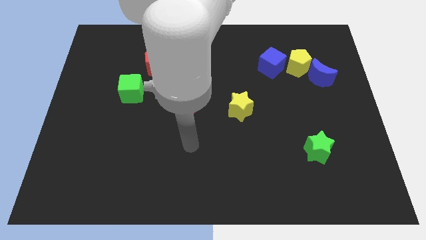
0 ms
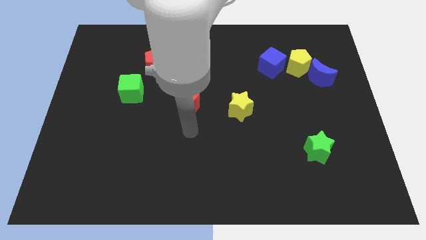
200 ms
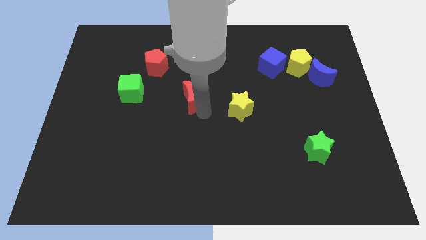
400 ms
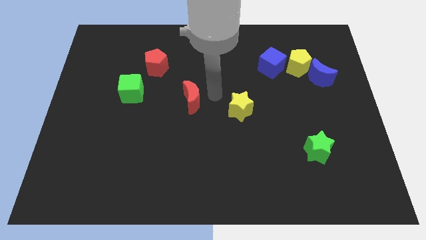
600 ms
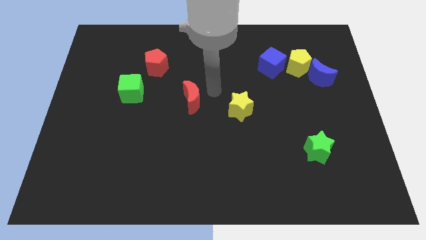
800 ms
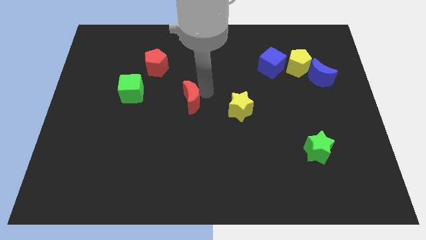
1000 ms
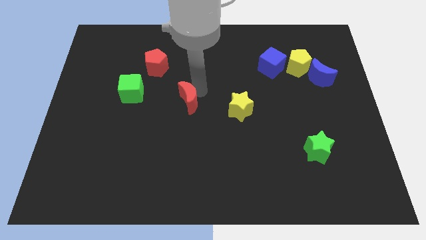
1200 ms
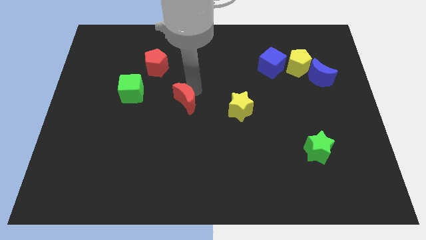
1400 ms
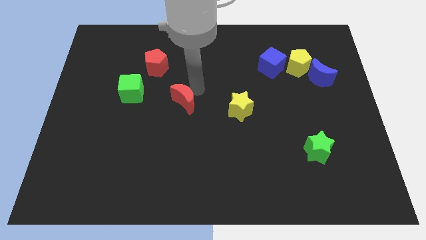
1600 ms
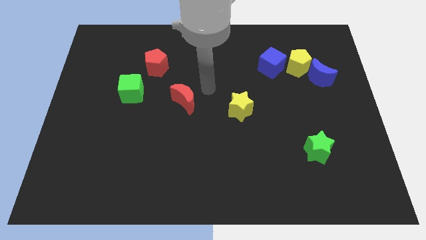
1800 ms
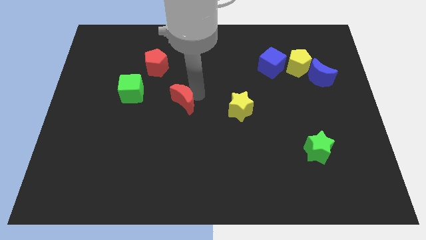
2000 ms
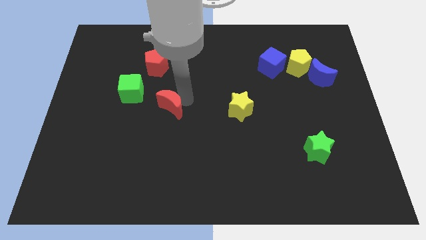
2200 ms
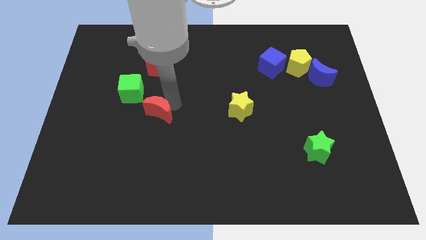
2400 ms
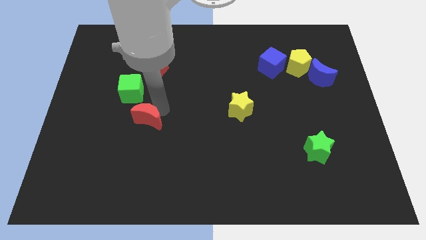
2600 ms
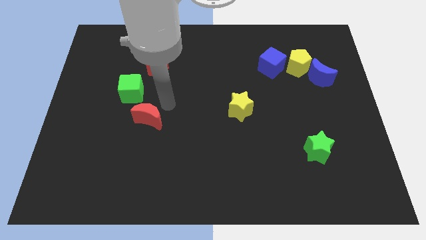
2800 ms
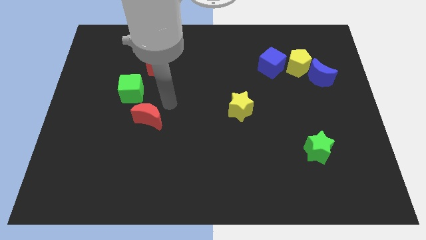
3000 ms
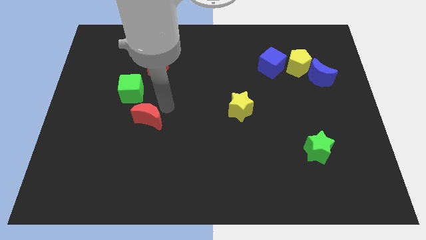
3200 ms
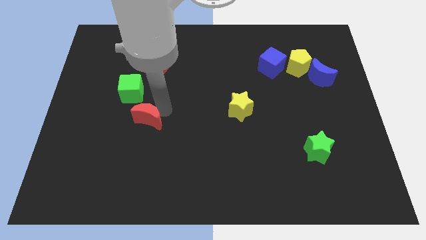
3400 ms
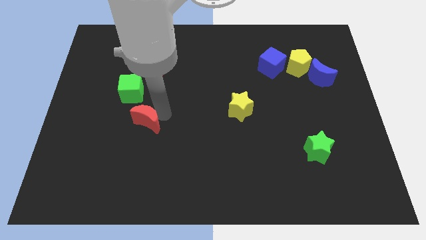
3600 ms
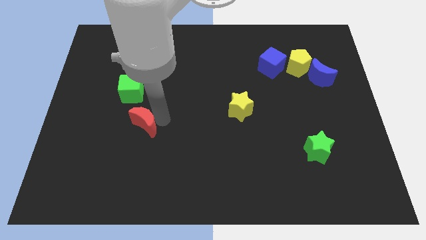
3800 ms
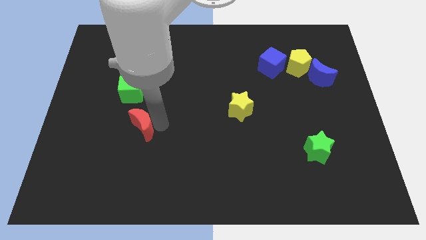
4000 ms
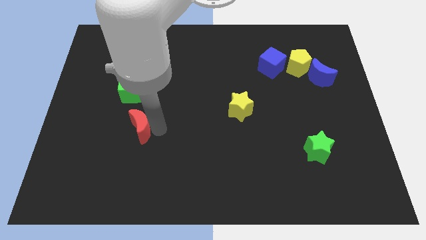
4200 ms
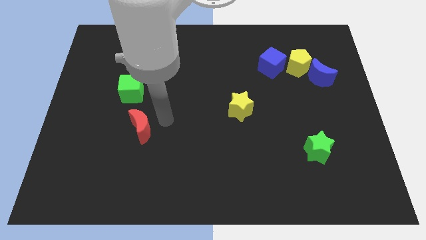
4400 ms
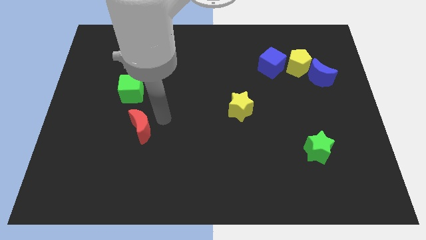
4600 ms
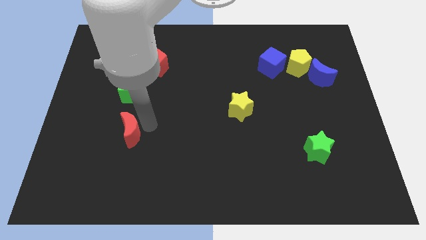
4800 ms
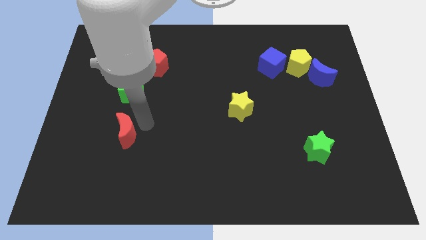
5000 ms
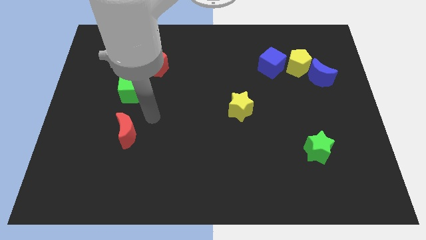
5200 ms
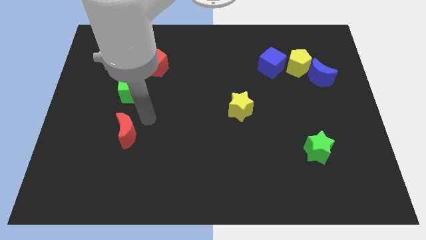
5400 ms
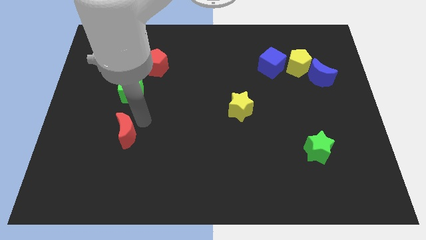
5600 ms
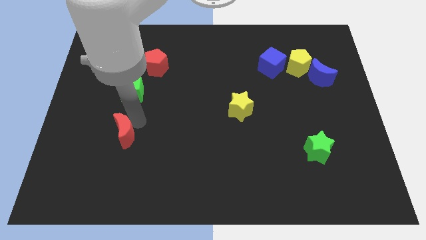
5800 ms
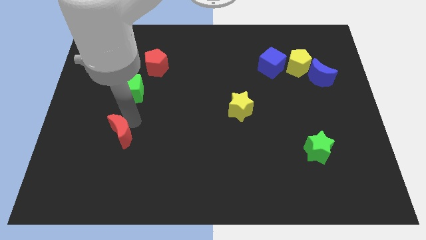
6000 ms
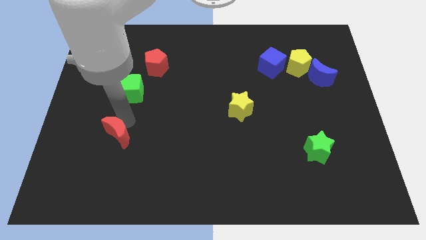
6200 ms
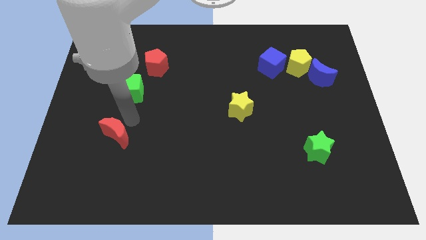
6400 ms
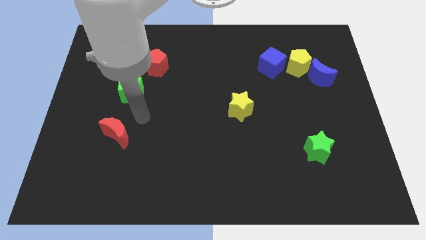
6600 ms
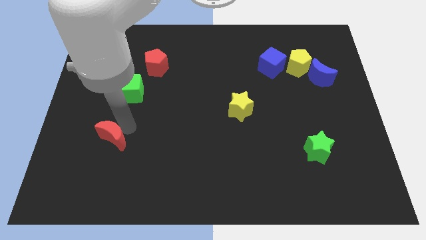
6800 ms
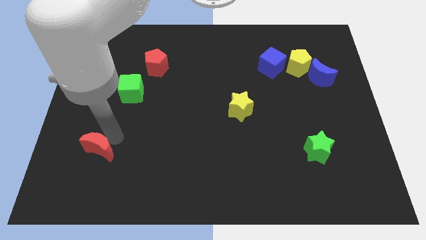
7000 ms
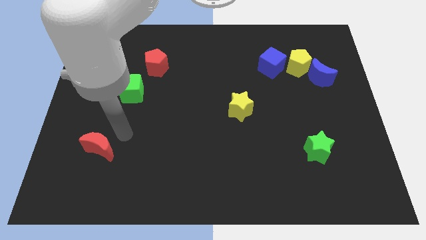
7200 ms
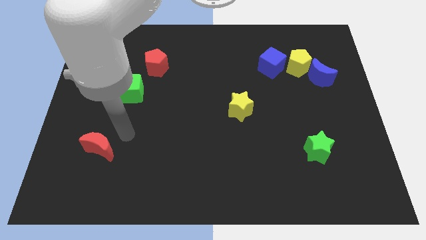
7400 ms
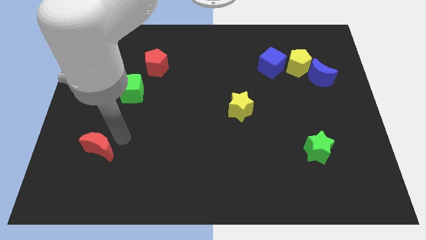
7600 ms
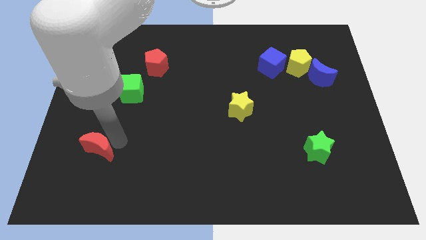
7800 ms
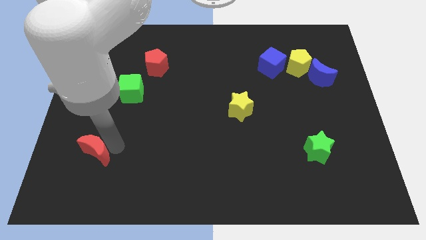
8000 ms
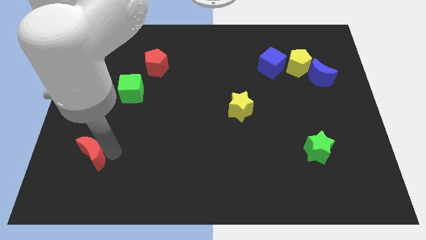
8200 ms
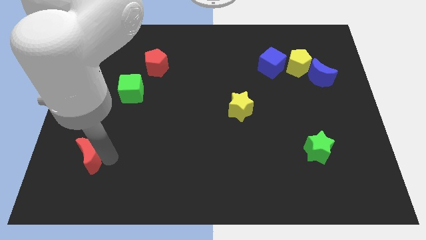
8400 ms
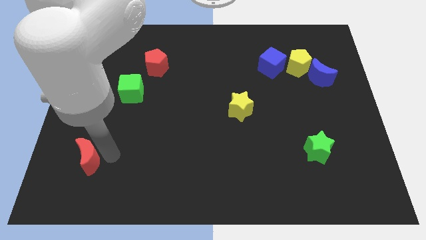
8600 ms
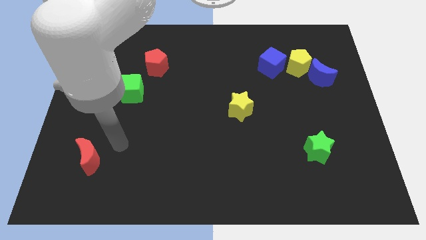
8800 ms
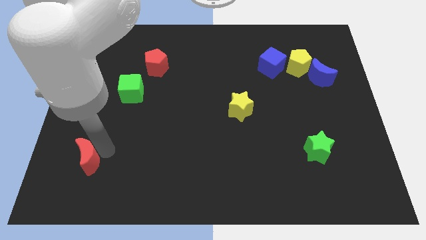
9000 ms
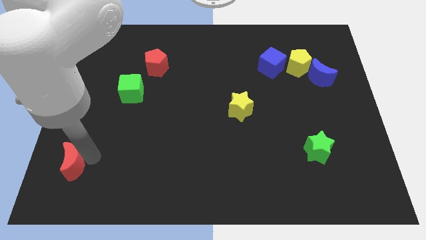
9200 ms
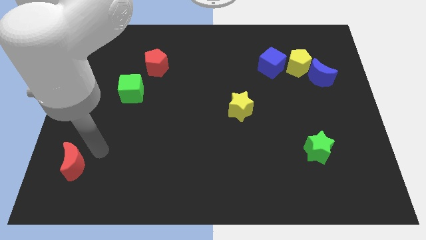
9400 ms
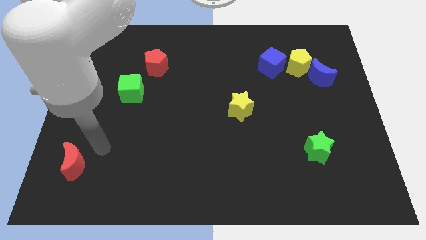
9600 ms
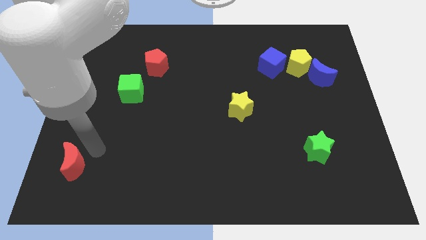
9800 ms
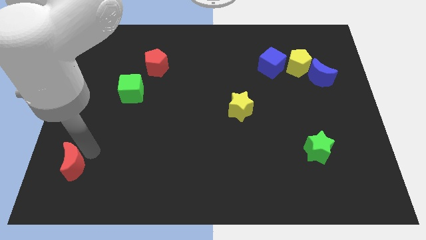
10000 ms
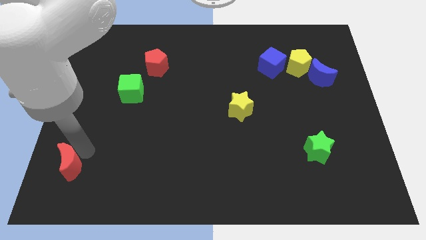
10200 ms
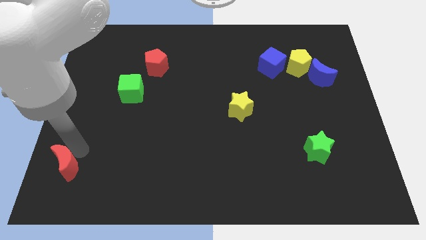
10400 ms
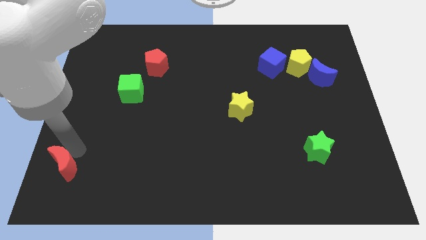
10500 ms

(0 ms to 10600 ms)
move the red moon to the bottom left of the board

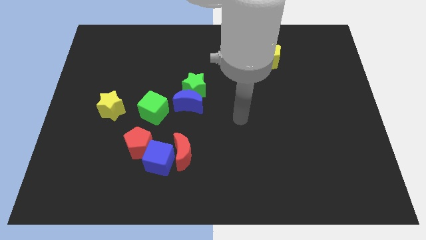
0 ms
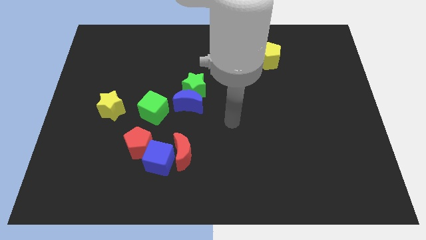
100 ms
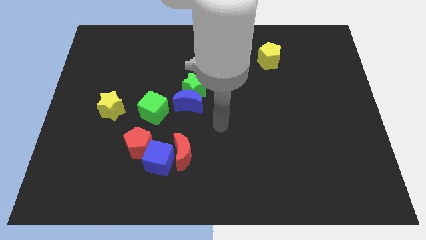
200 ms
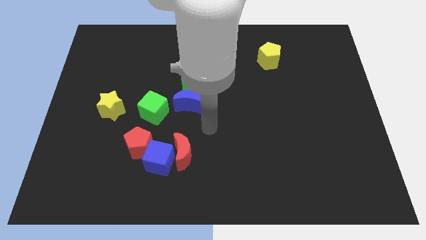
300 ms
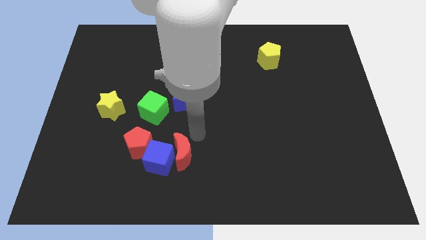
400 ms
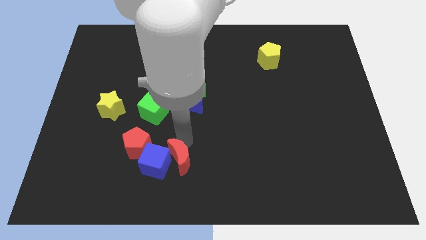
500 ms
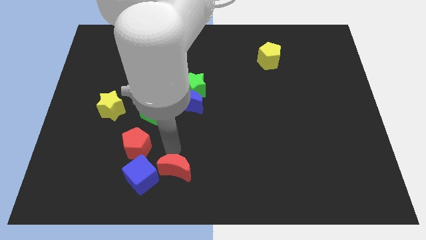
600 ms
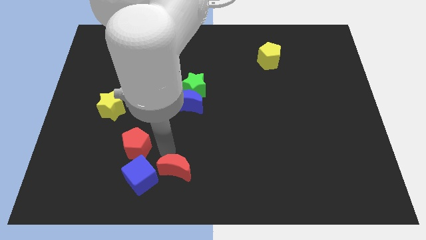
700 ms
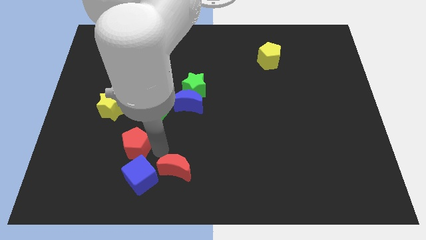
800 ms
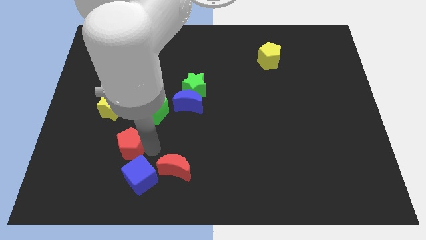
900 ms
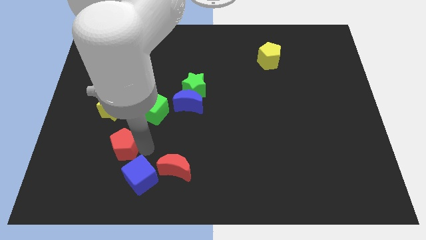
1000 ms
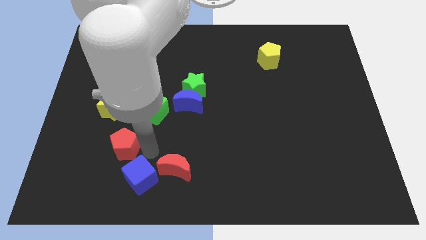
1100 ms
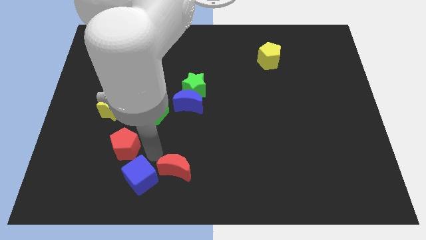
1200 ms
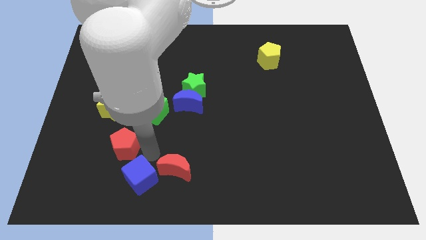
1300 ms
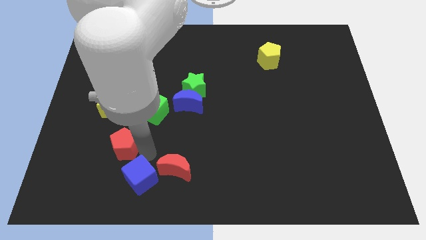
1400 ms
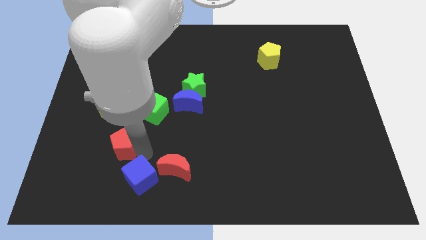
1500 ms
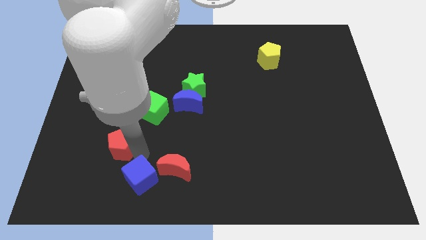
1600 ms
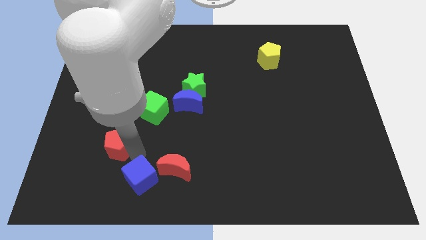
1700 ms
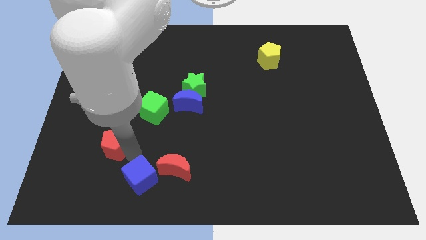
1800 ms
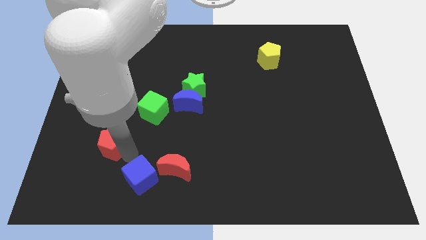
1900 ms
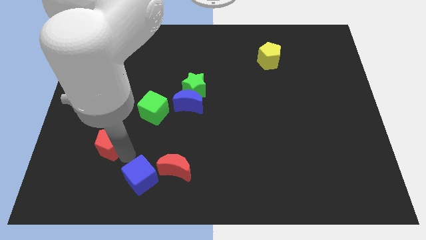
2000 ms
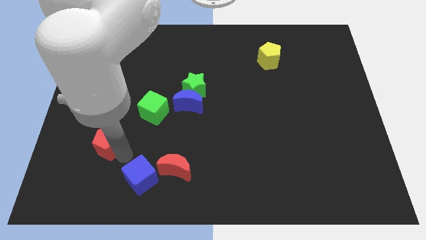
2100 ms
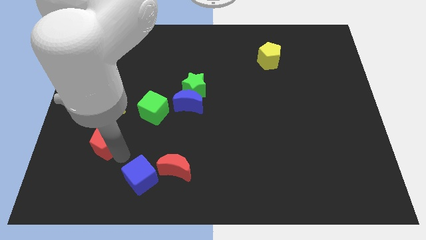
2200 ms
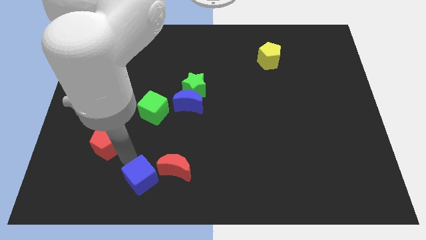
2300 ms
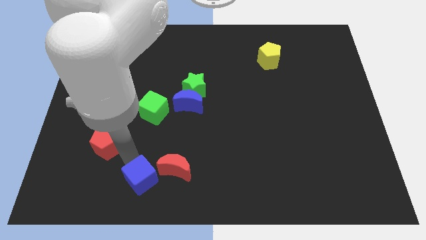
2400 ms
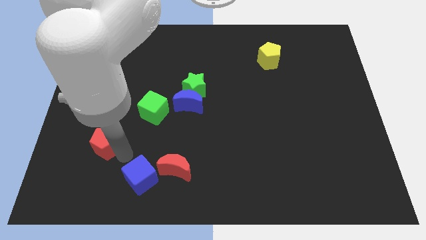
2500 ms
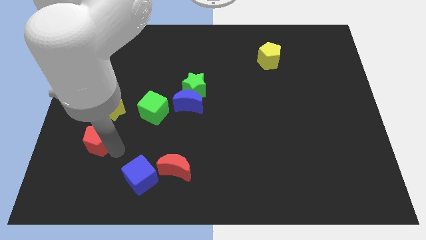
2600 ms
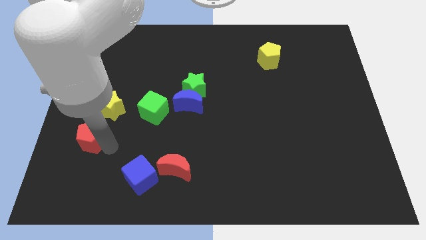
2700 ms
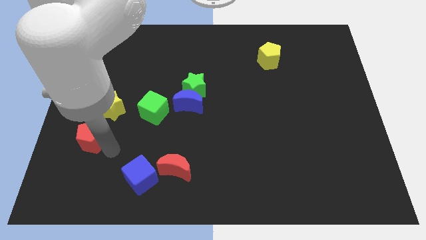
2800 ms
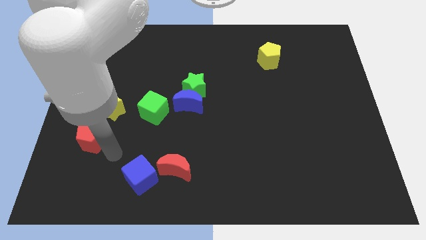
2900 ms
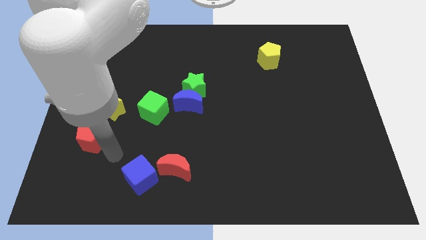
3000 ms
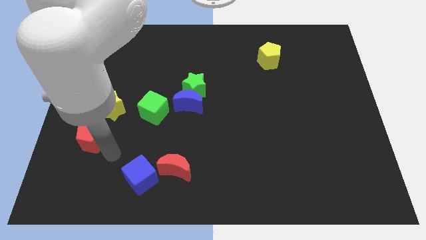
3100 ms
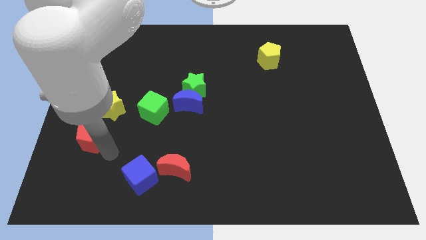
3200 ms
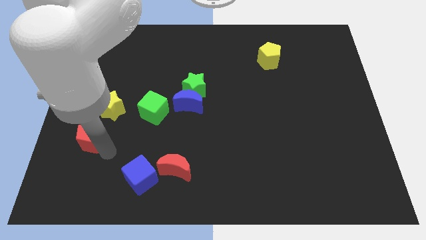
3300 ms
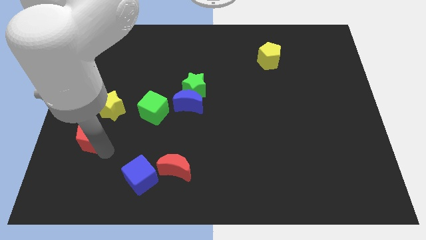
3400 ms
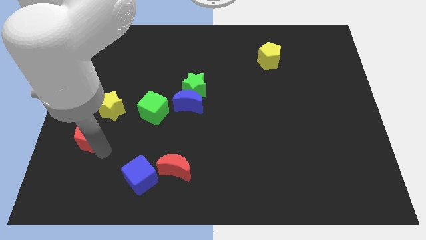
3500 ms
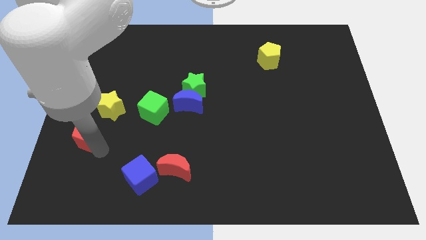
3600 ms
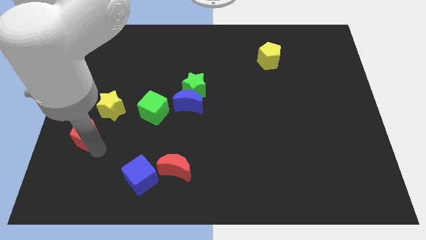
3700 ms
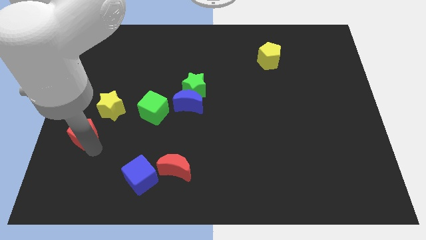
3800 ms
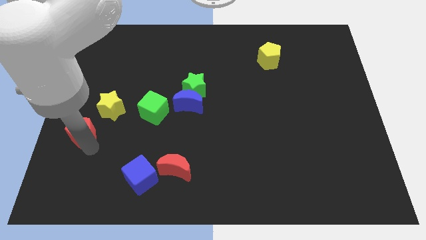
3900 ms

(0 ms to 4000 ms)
put the red pentagon to the left side of the board
